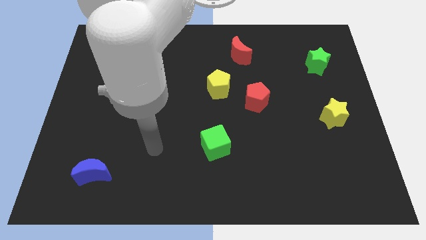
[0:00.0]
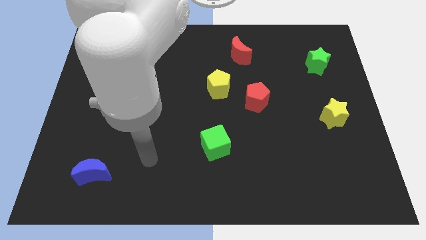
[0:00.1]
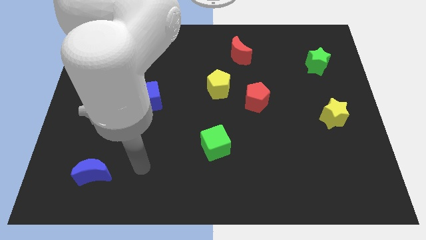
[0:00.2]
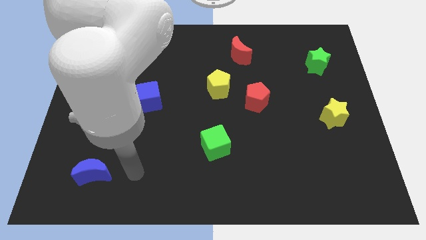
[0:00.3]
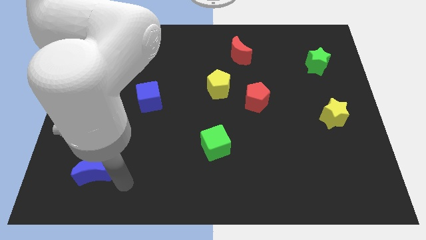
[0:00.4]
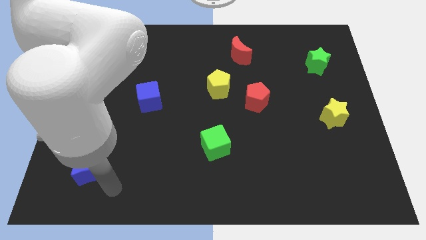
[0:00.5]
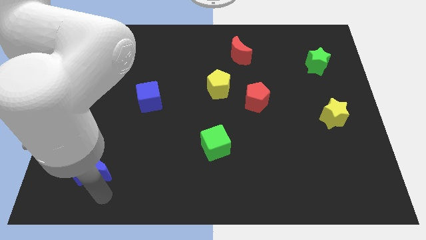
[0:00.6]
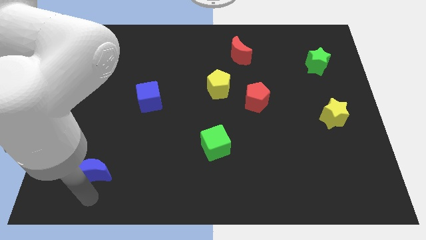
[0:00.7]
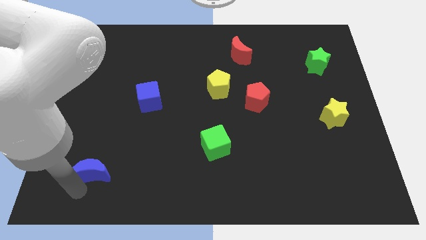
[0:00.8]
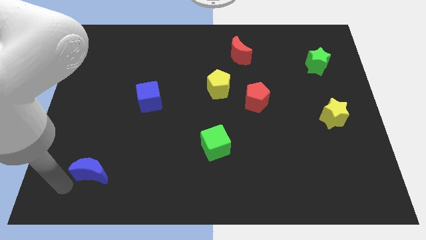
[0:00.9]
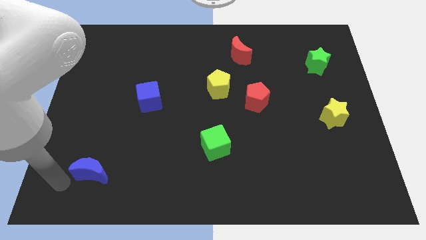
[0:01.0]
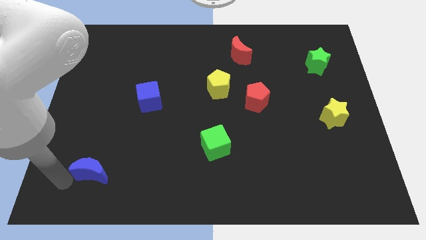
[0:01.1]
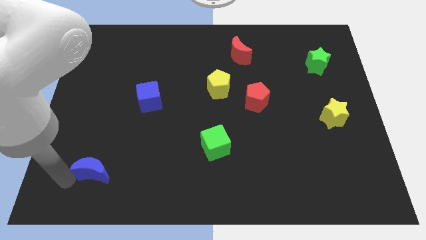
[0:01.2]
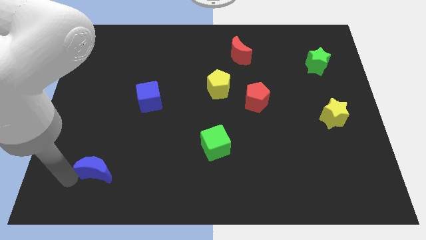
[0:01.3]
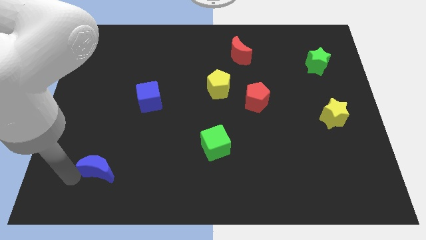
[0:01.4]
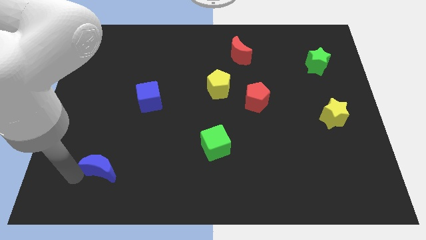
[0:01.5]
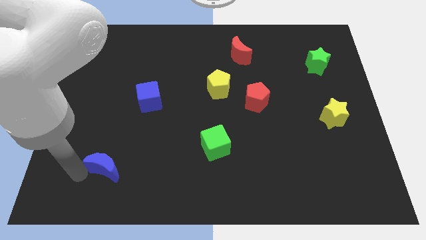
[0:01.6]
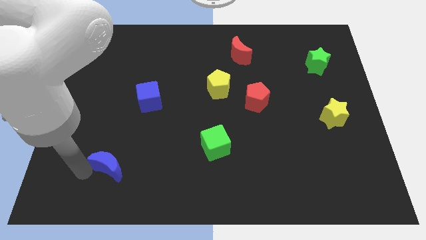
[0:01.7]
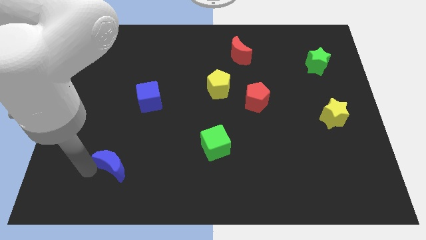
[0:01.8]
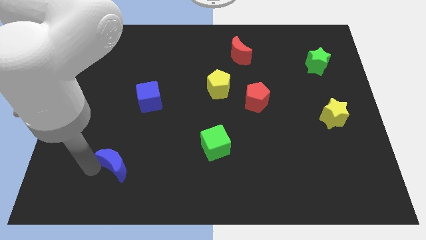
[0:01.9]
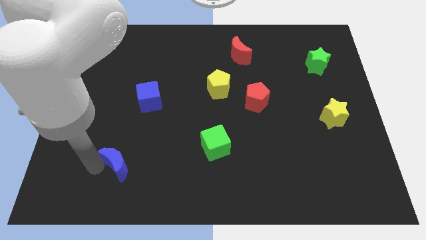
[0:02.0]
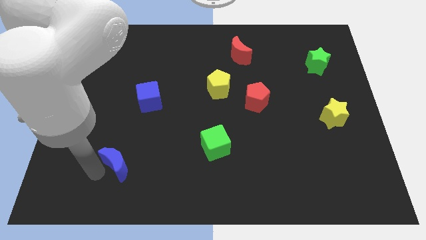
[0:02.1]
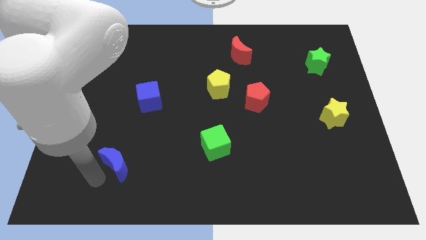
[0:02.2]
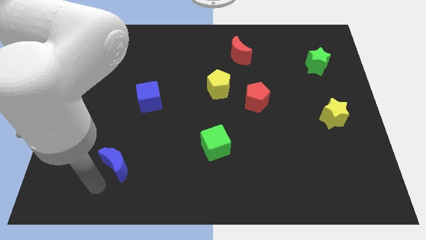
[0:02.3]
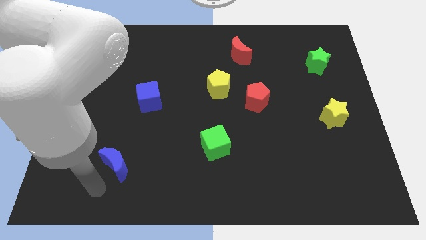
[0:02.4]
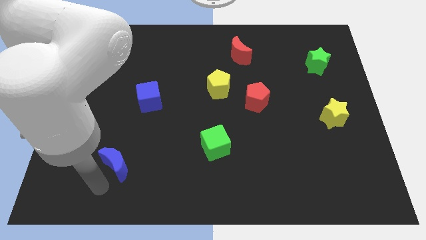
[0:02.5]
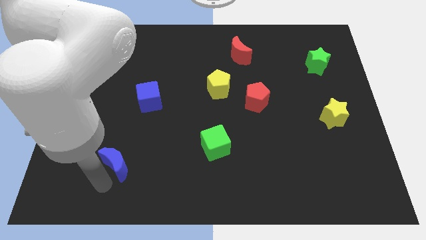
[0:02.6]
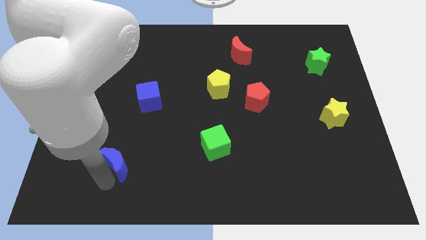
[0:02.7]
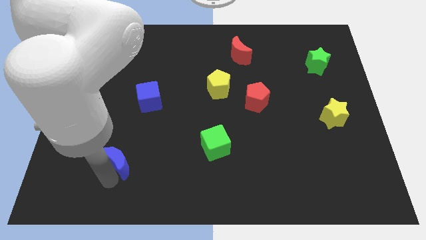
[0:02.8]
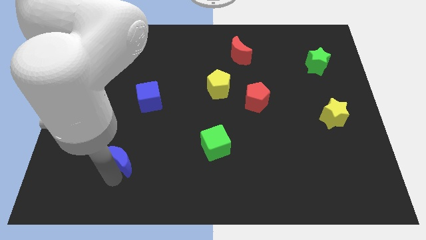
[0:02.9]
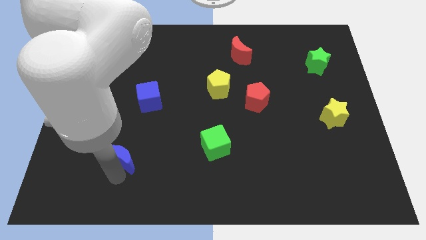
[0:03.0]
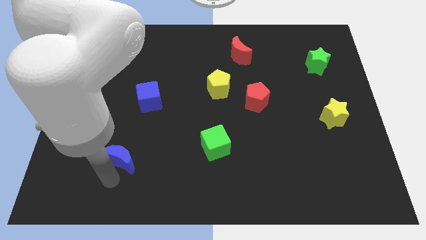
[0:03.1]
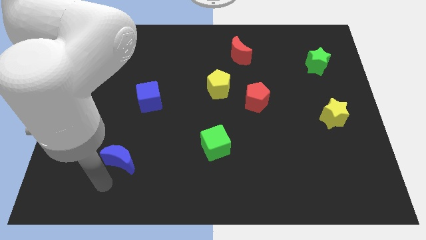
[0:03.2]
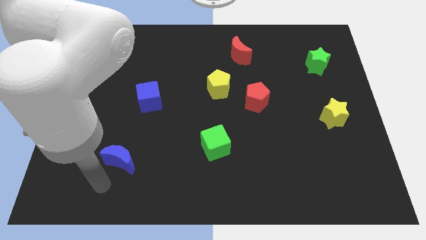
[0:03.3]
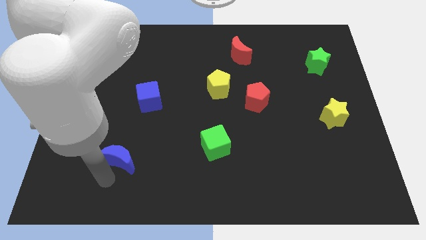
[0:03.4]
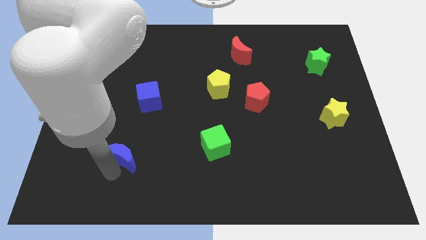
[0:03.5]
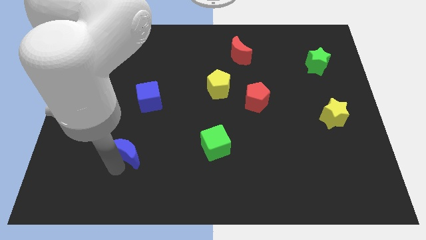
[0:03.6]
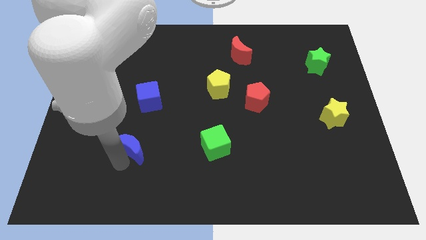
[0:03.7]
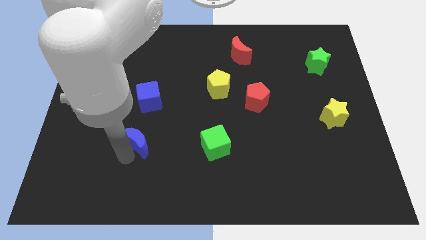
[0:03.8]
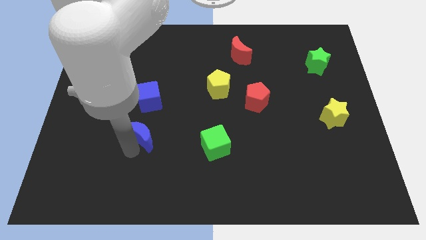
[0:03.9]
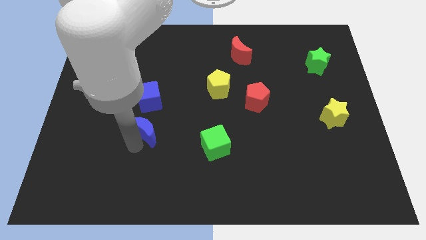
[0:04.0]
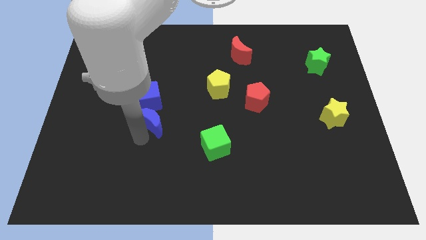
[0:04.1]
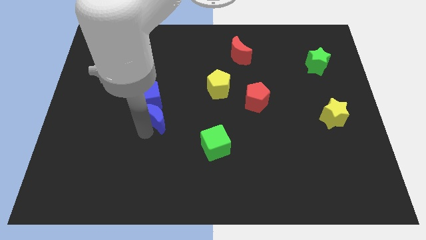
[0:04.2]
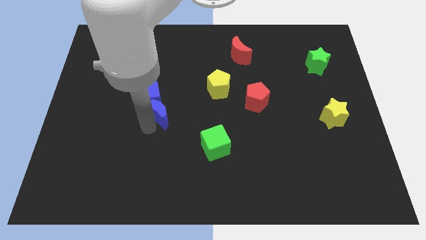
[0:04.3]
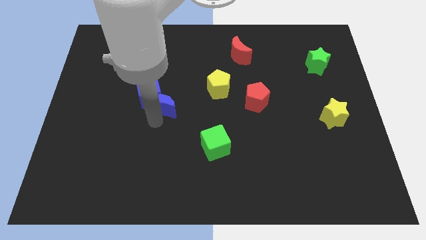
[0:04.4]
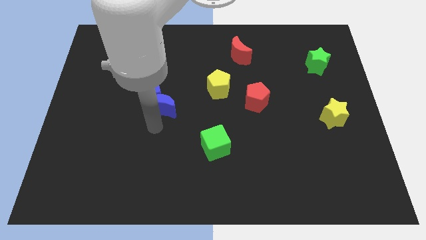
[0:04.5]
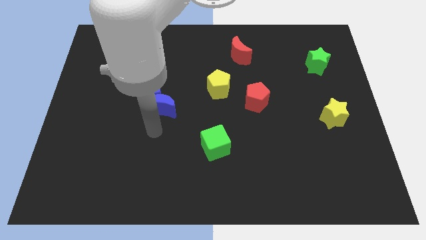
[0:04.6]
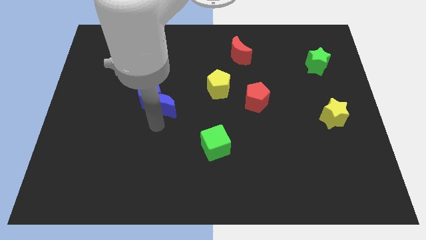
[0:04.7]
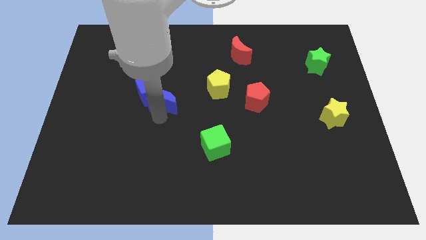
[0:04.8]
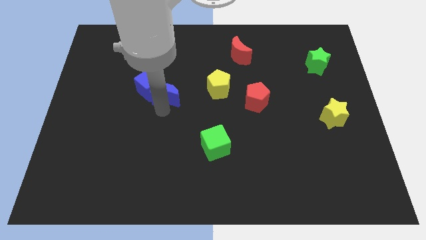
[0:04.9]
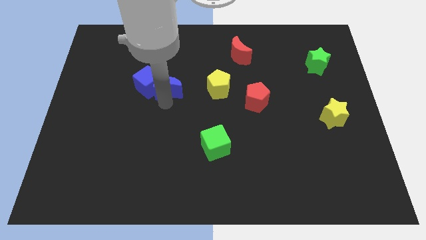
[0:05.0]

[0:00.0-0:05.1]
move the blue moon to the top right side of the blue cube

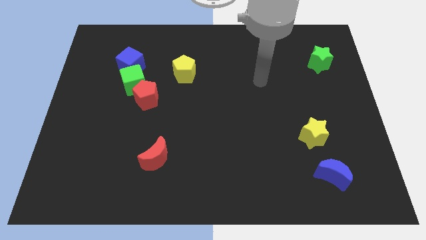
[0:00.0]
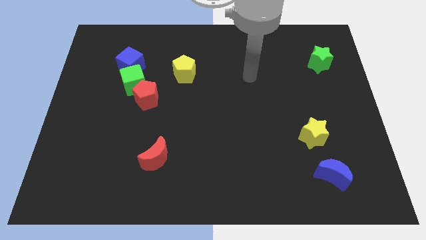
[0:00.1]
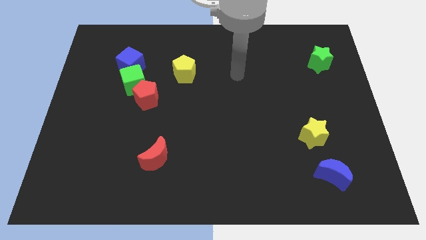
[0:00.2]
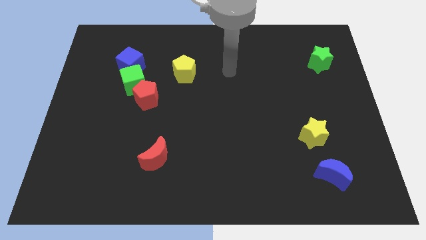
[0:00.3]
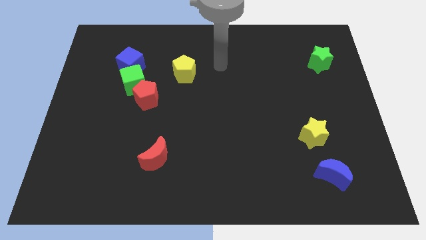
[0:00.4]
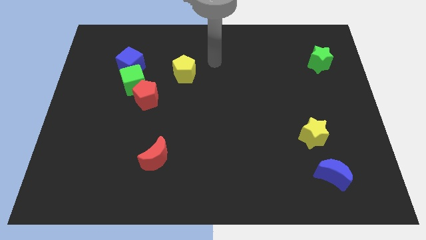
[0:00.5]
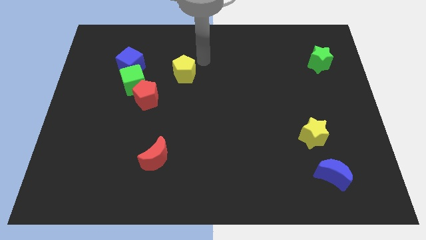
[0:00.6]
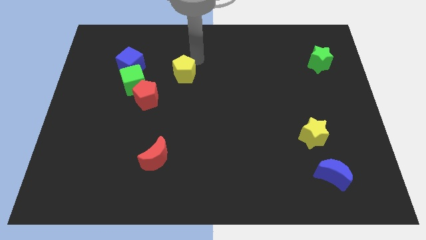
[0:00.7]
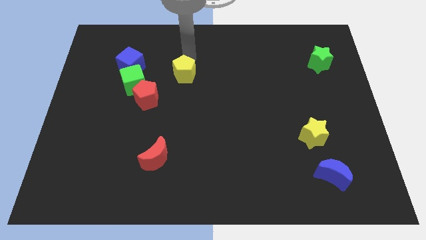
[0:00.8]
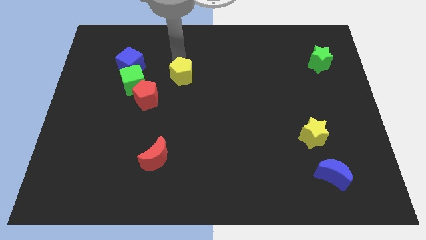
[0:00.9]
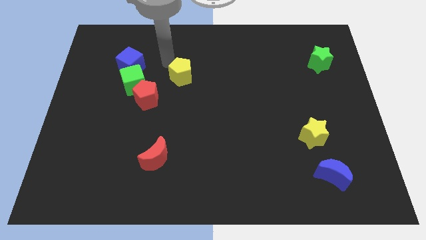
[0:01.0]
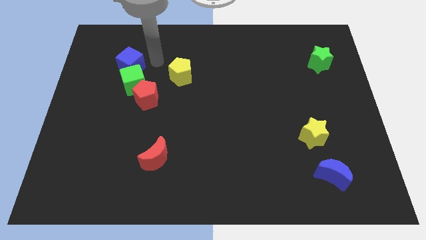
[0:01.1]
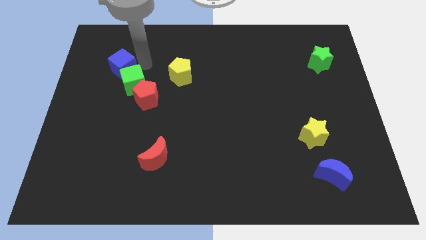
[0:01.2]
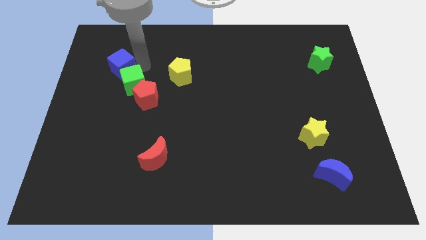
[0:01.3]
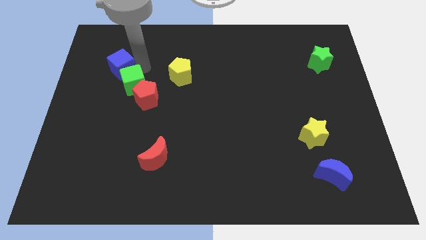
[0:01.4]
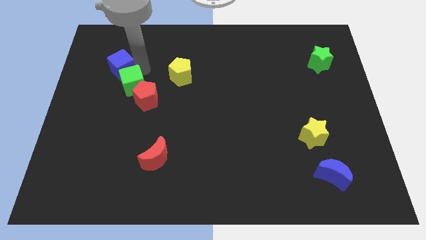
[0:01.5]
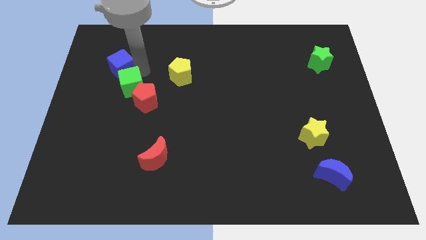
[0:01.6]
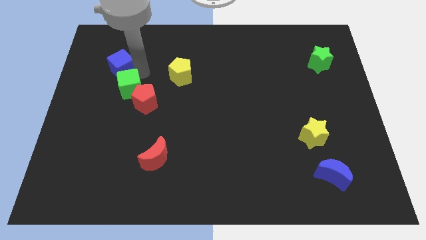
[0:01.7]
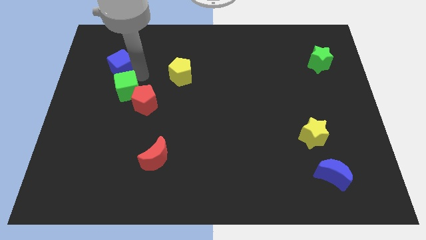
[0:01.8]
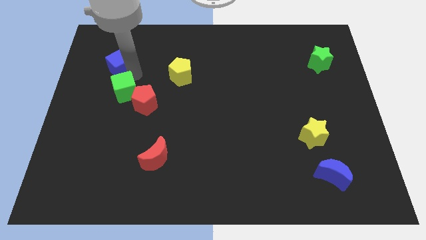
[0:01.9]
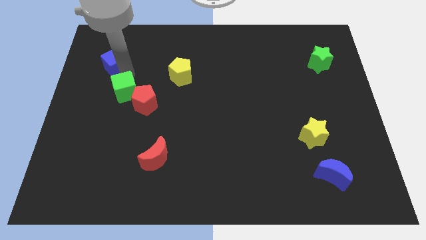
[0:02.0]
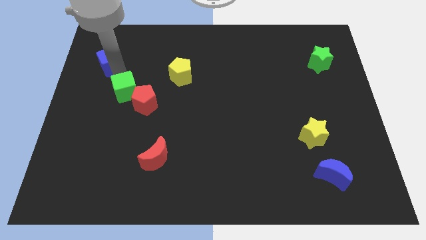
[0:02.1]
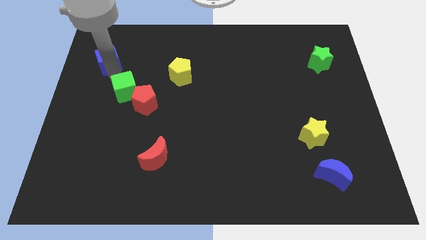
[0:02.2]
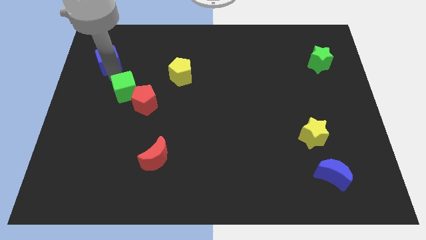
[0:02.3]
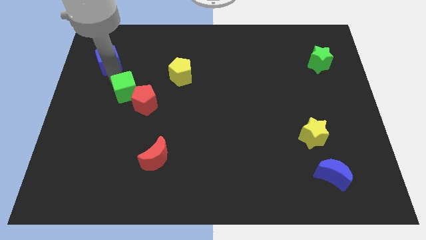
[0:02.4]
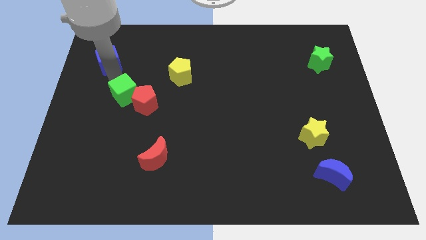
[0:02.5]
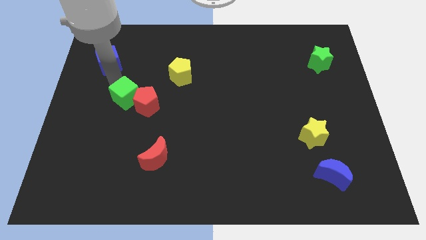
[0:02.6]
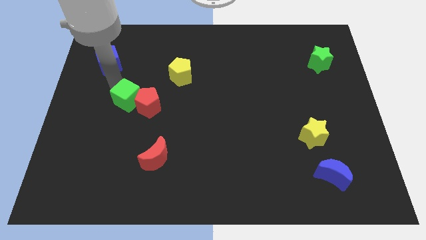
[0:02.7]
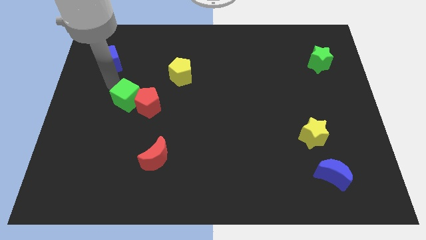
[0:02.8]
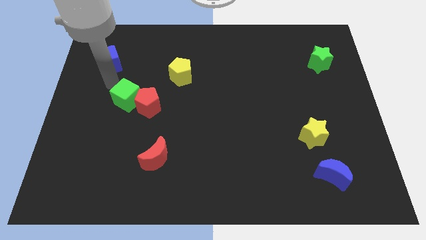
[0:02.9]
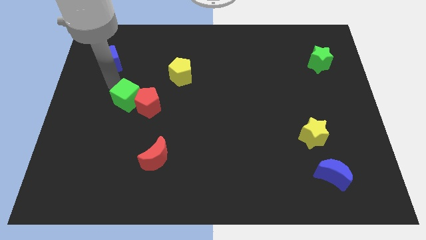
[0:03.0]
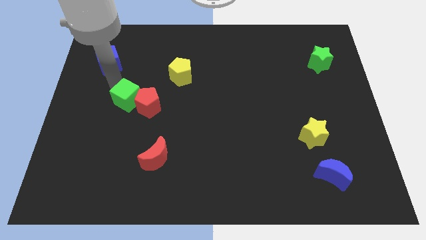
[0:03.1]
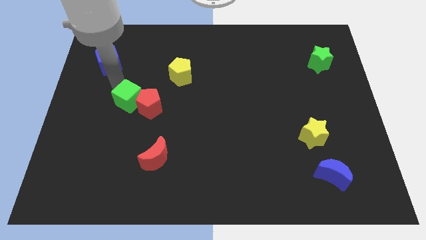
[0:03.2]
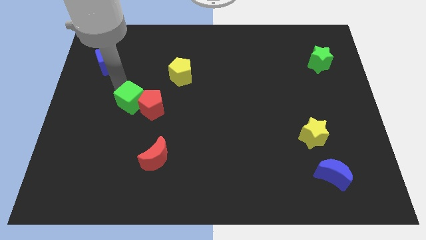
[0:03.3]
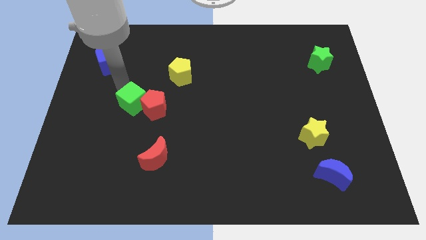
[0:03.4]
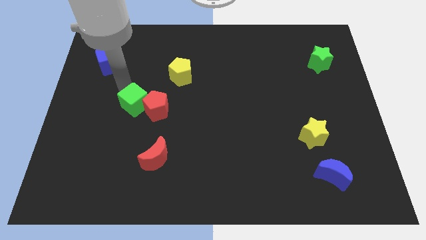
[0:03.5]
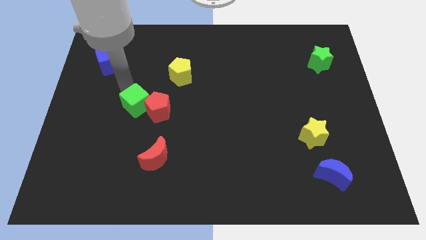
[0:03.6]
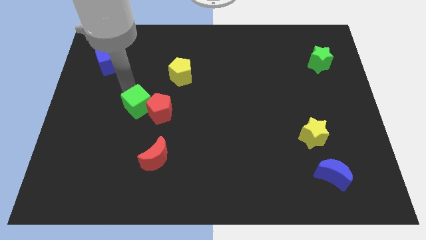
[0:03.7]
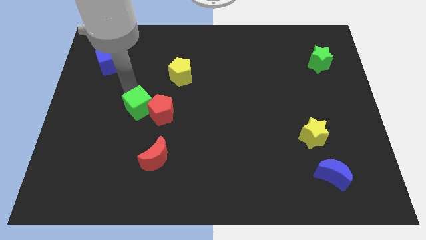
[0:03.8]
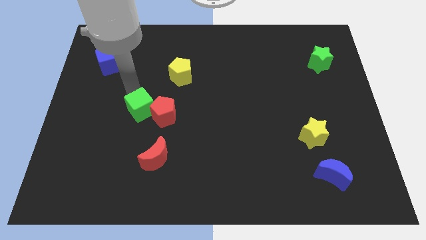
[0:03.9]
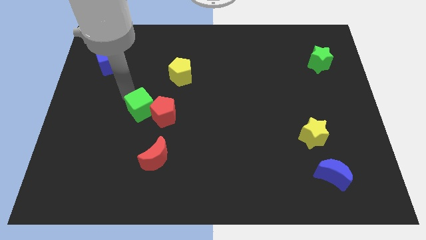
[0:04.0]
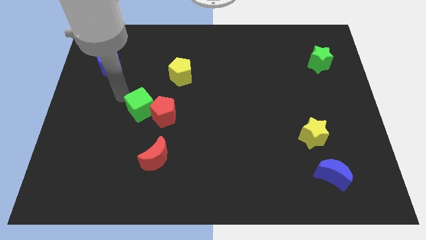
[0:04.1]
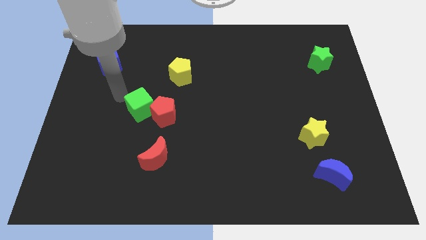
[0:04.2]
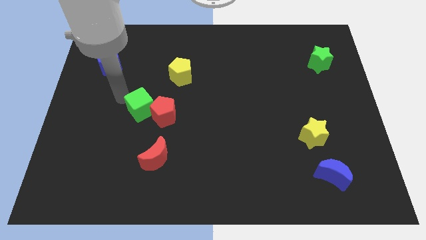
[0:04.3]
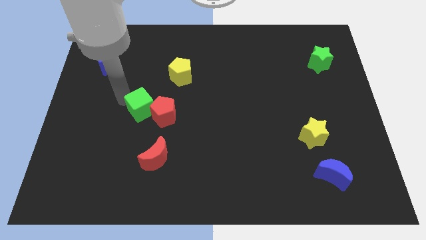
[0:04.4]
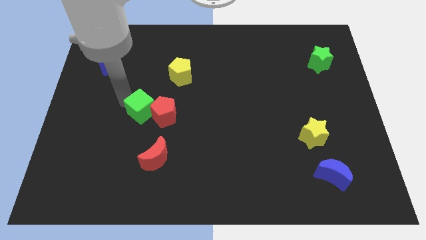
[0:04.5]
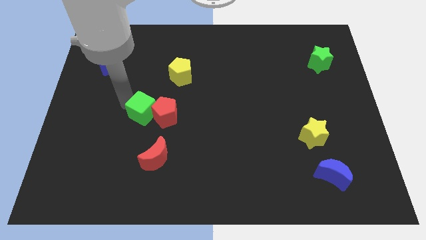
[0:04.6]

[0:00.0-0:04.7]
move the green cube to the top side of the red moon
